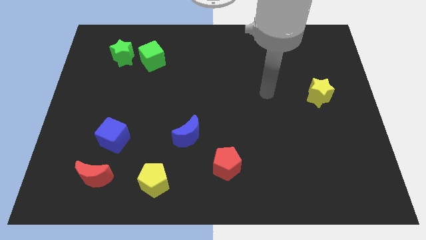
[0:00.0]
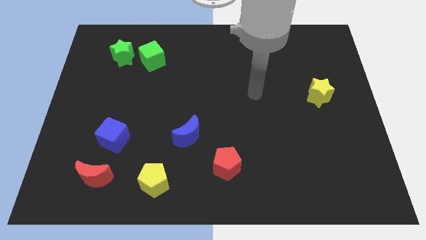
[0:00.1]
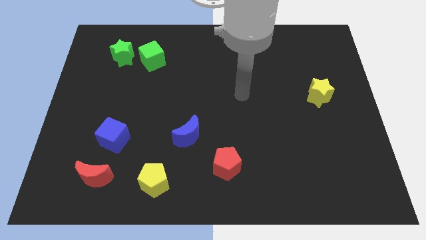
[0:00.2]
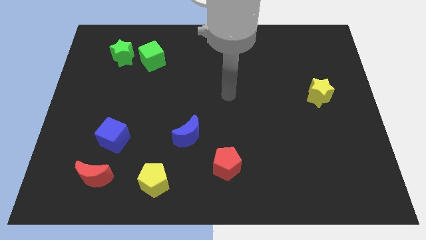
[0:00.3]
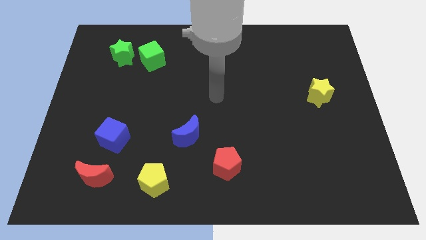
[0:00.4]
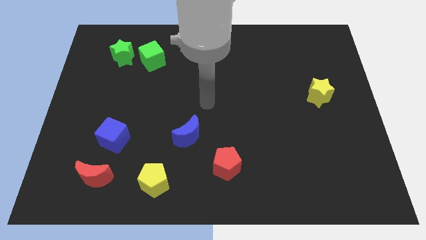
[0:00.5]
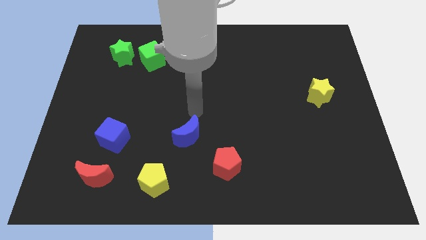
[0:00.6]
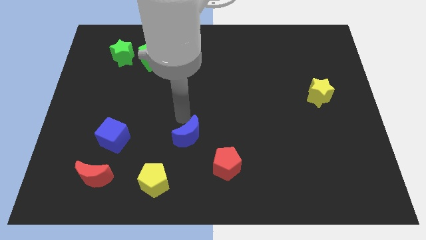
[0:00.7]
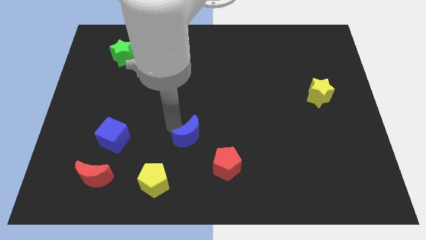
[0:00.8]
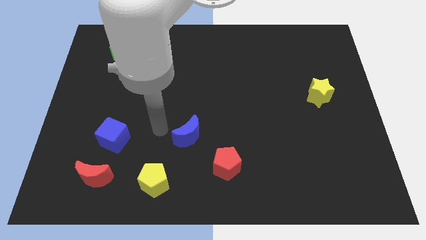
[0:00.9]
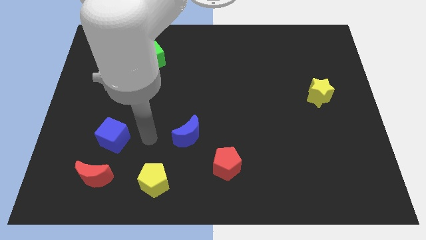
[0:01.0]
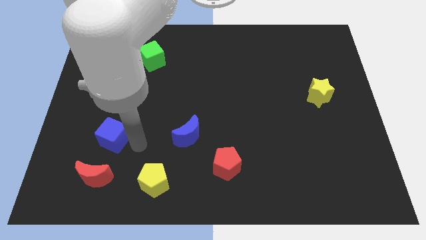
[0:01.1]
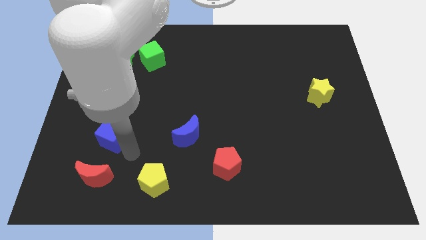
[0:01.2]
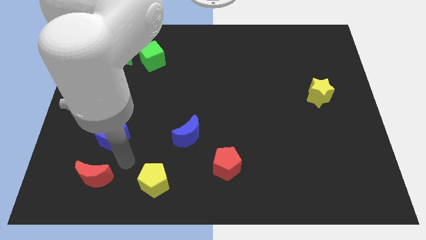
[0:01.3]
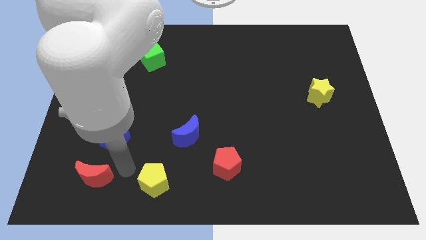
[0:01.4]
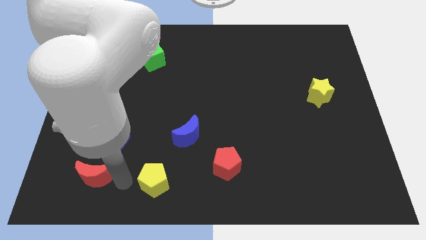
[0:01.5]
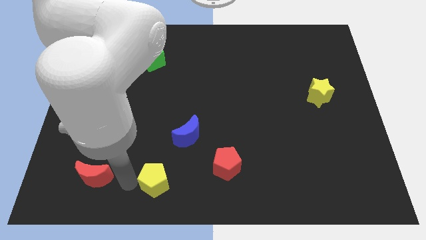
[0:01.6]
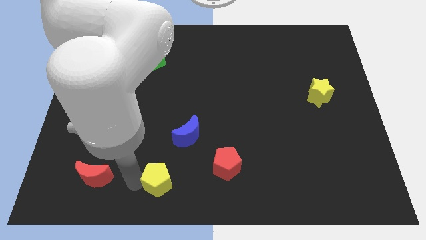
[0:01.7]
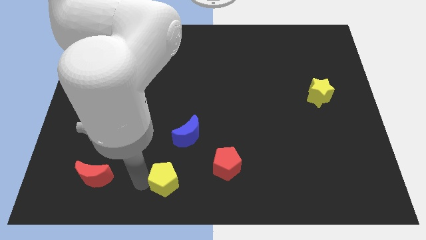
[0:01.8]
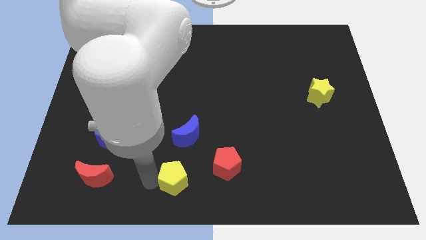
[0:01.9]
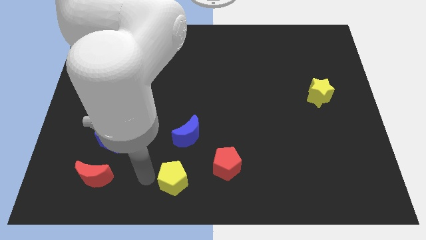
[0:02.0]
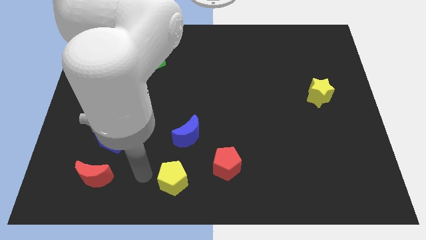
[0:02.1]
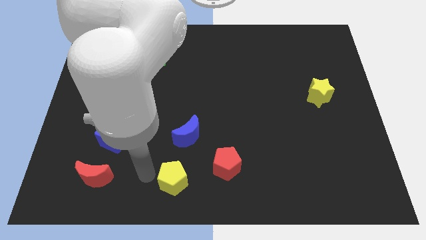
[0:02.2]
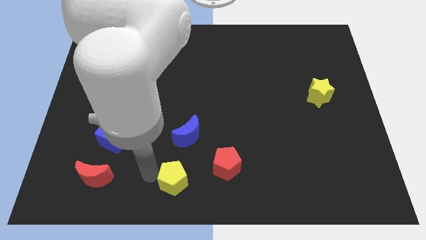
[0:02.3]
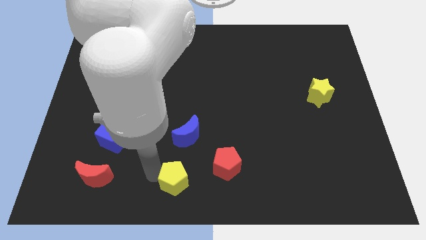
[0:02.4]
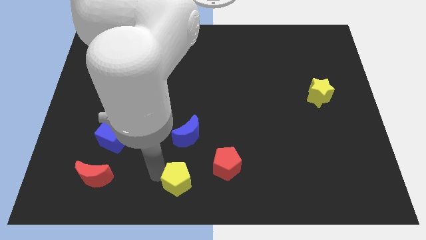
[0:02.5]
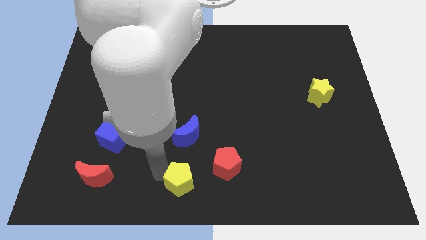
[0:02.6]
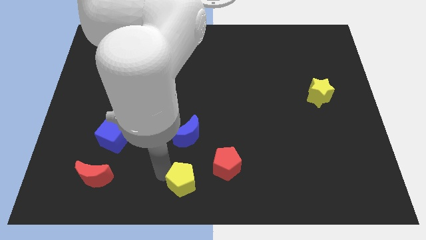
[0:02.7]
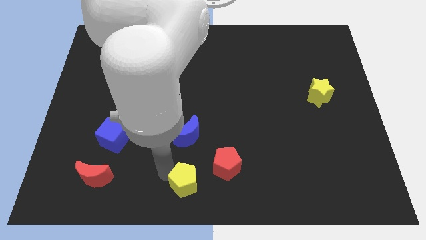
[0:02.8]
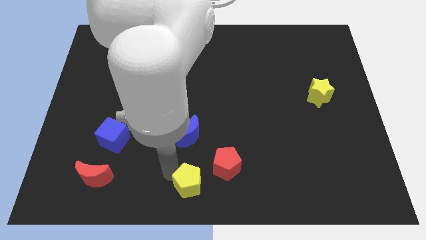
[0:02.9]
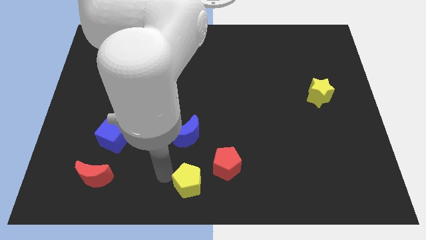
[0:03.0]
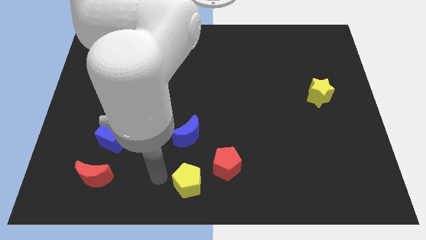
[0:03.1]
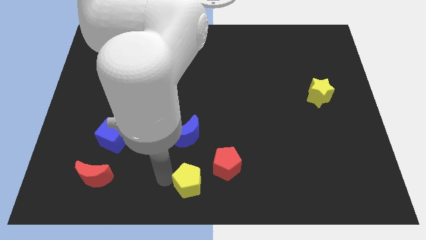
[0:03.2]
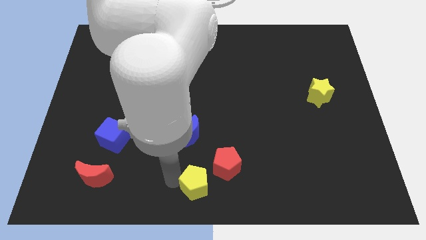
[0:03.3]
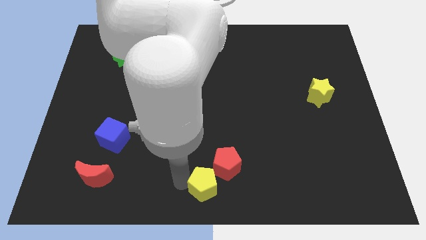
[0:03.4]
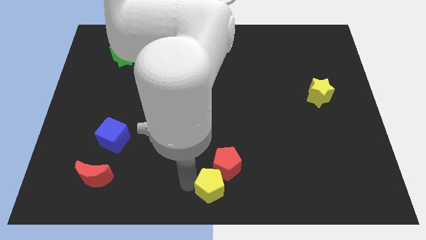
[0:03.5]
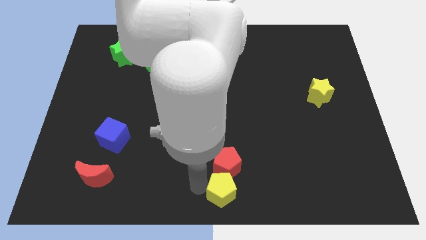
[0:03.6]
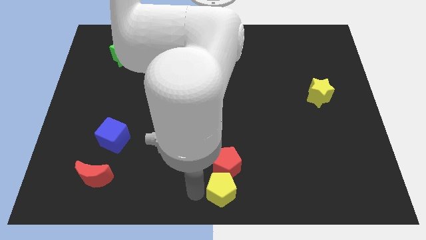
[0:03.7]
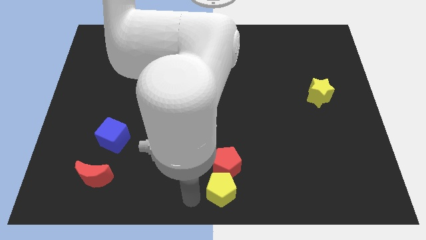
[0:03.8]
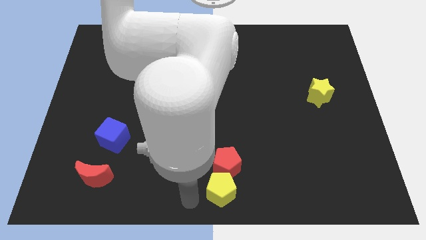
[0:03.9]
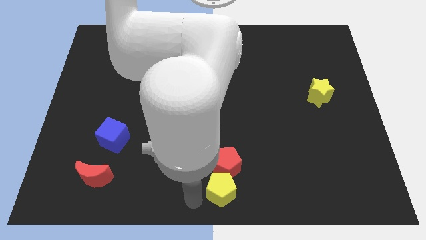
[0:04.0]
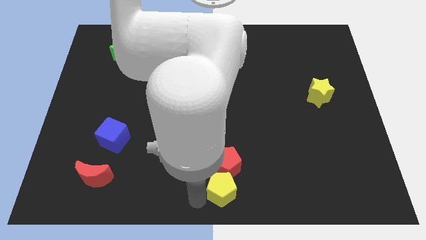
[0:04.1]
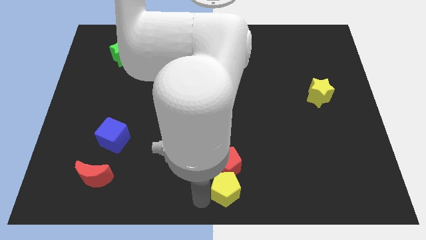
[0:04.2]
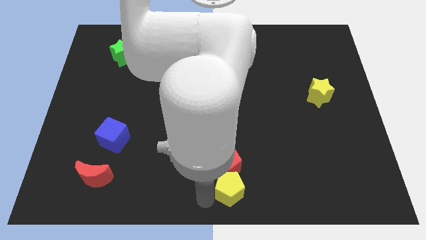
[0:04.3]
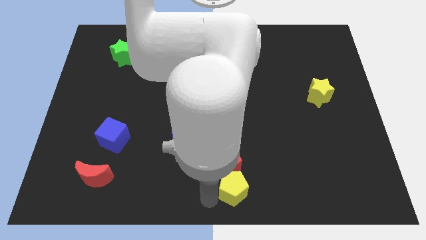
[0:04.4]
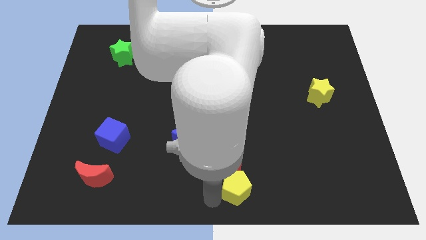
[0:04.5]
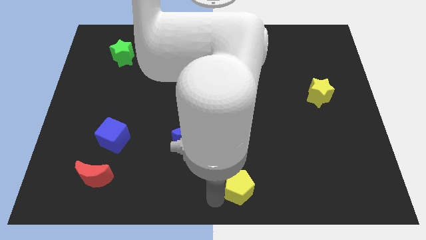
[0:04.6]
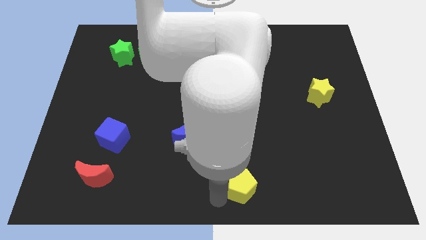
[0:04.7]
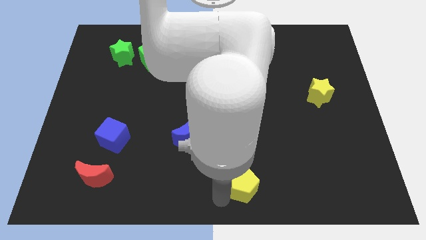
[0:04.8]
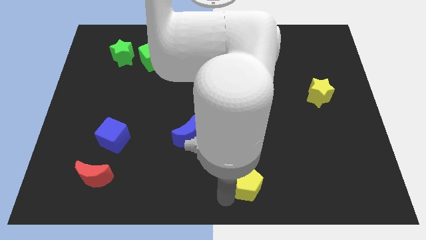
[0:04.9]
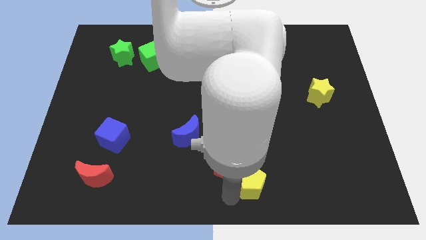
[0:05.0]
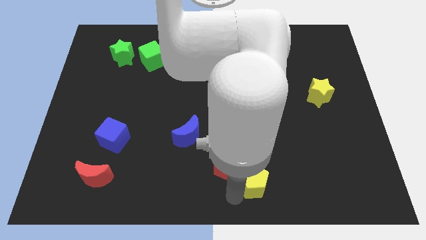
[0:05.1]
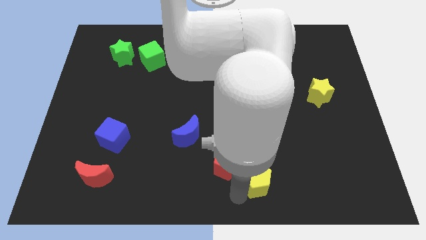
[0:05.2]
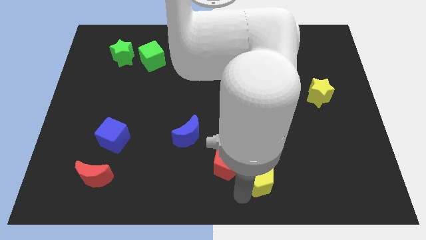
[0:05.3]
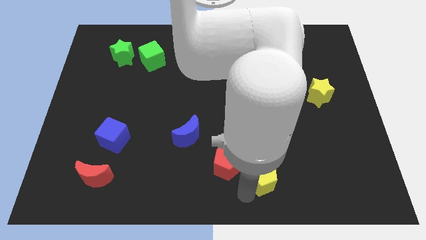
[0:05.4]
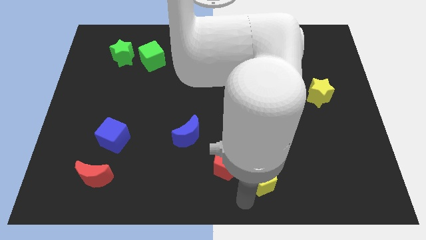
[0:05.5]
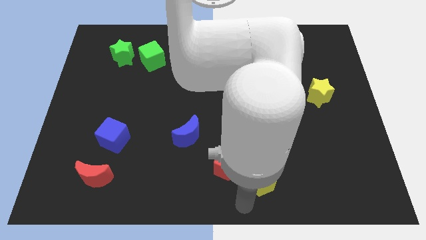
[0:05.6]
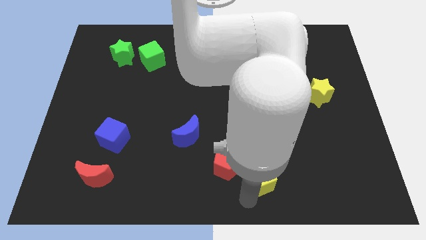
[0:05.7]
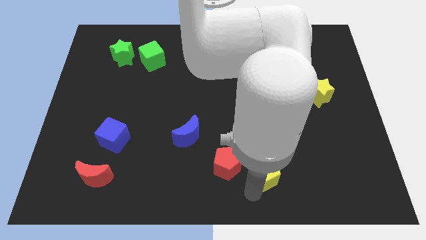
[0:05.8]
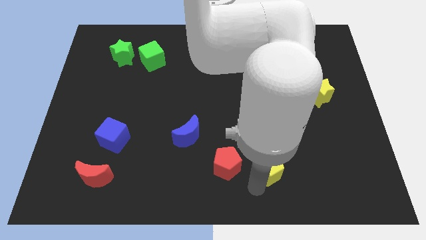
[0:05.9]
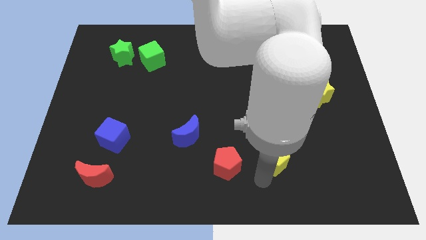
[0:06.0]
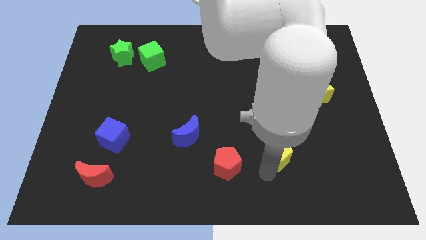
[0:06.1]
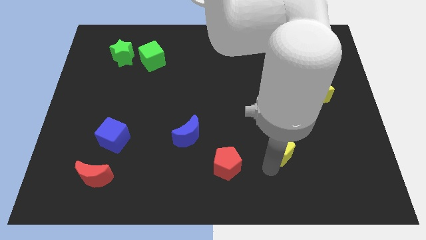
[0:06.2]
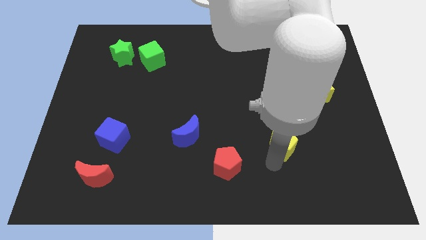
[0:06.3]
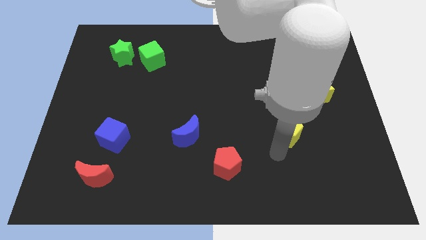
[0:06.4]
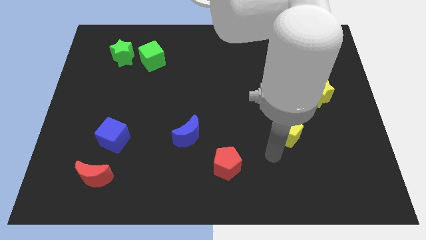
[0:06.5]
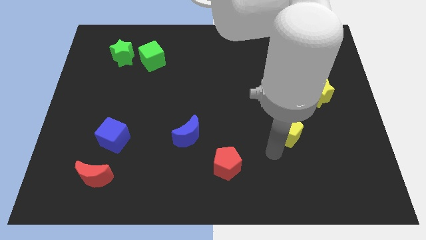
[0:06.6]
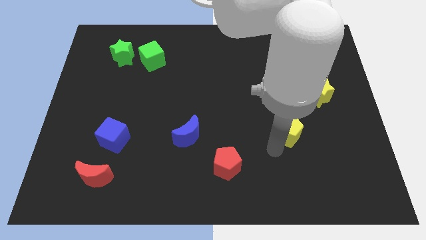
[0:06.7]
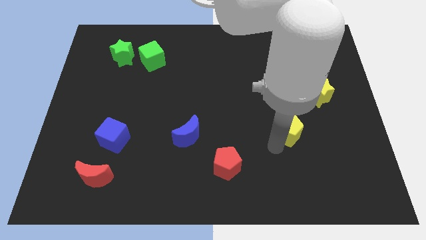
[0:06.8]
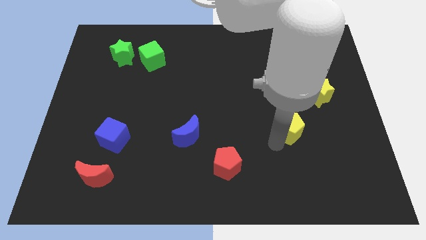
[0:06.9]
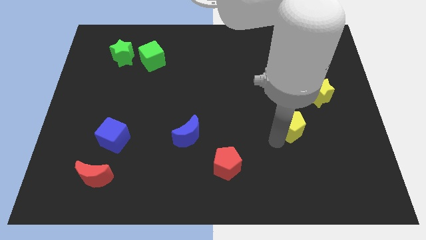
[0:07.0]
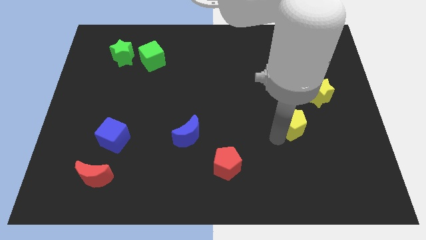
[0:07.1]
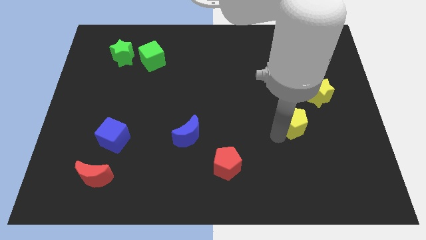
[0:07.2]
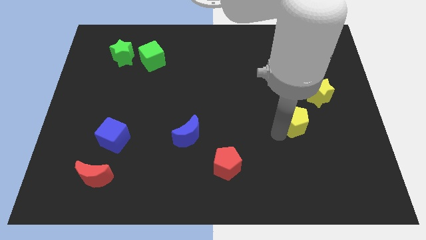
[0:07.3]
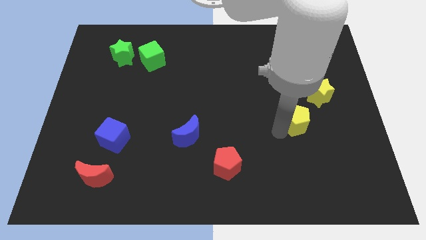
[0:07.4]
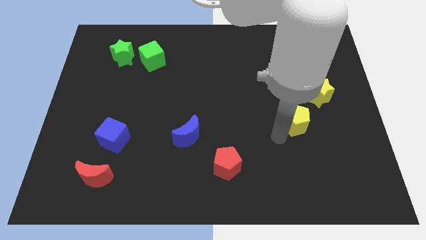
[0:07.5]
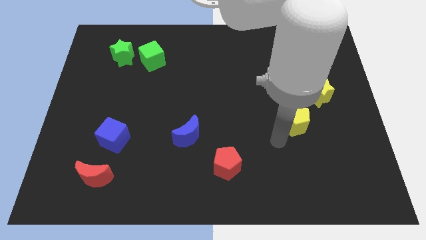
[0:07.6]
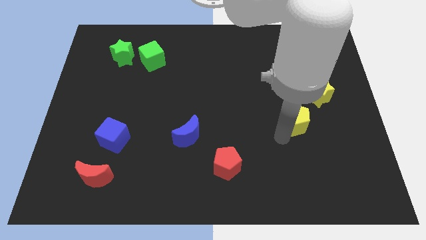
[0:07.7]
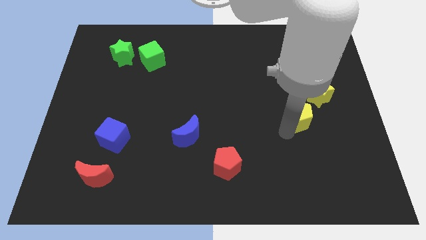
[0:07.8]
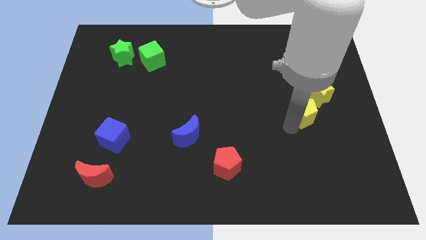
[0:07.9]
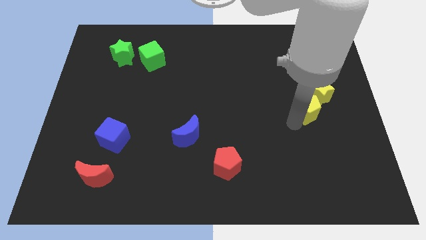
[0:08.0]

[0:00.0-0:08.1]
push the yellow pentagon next to the yellow star
